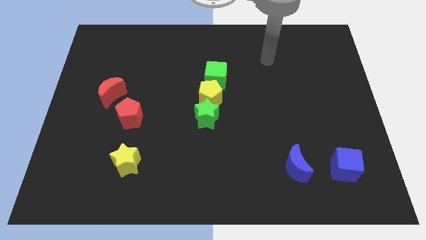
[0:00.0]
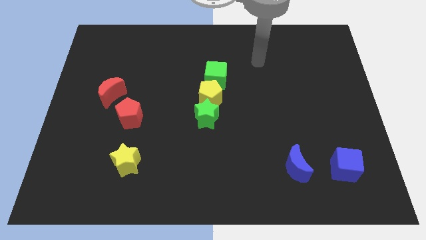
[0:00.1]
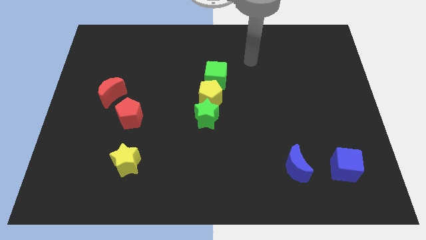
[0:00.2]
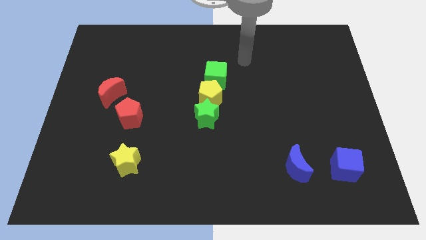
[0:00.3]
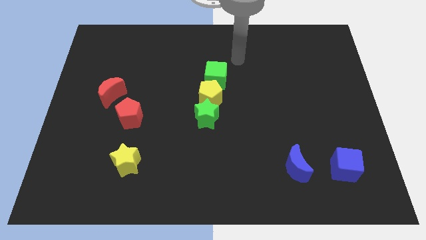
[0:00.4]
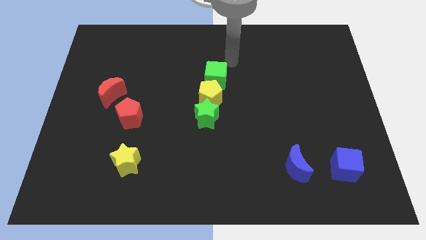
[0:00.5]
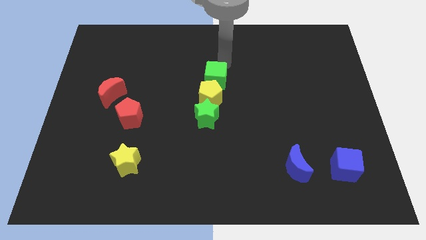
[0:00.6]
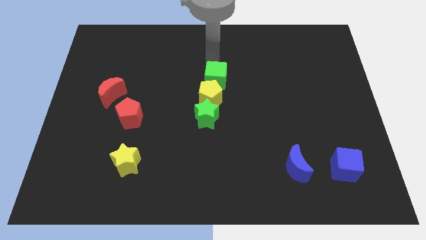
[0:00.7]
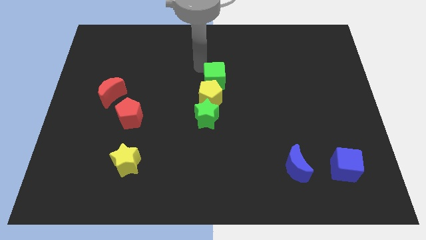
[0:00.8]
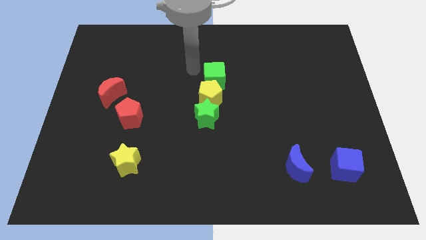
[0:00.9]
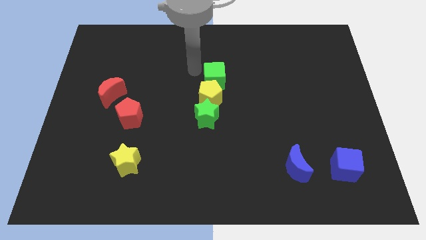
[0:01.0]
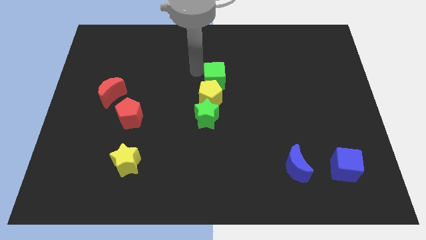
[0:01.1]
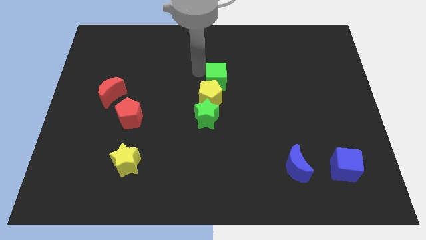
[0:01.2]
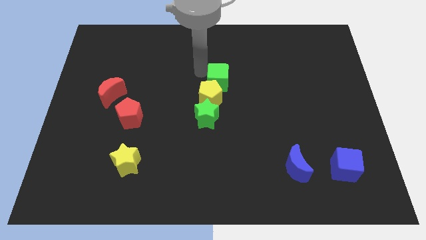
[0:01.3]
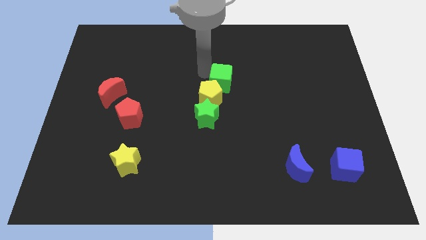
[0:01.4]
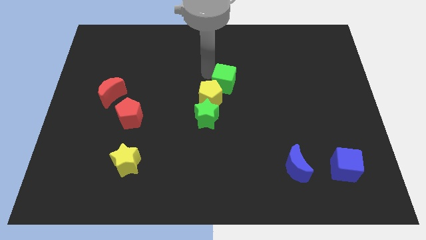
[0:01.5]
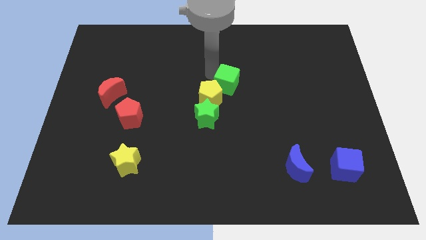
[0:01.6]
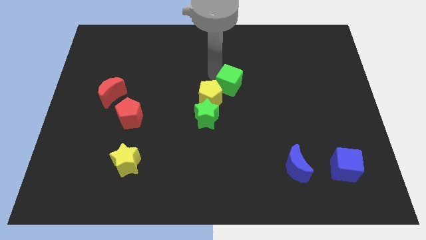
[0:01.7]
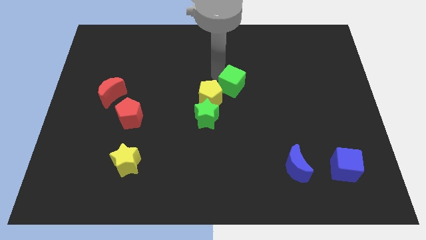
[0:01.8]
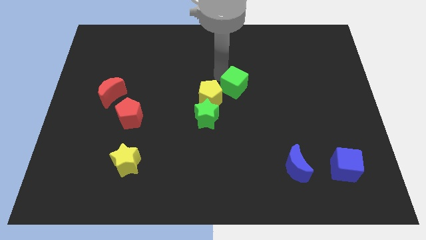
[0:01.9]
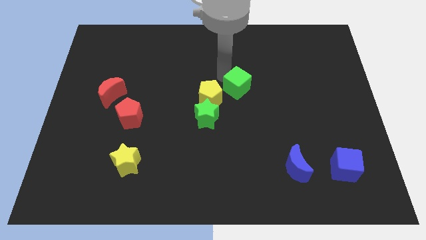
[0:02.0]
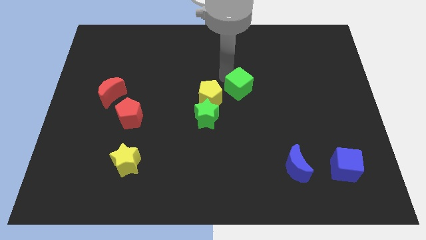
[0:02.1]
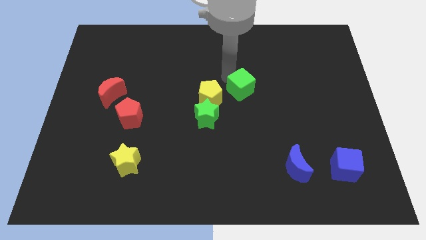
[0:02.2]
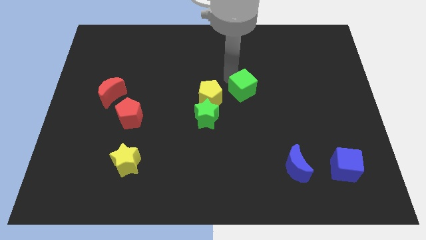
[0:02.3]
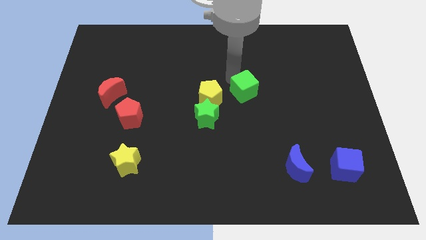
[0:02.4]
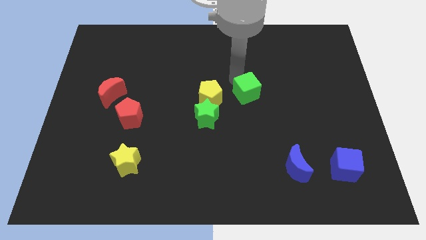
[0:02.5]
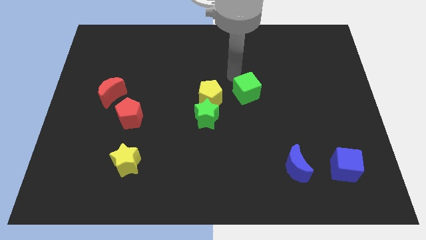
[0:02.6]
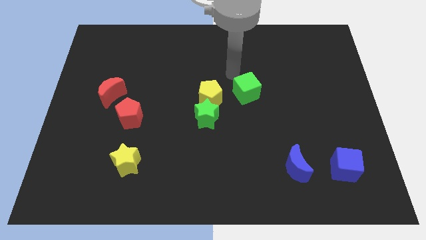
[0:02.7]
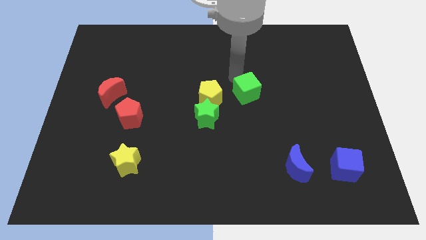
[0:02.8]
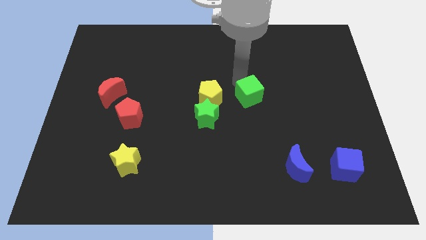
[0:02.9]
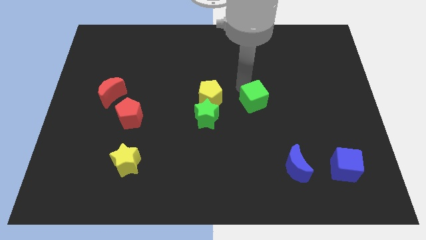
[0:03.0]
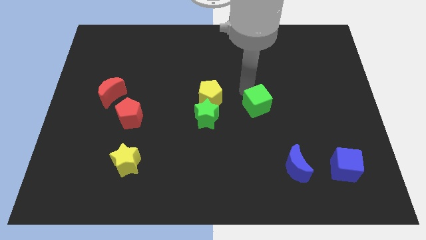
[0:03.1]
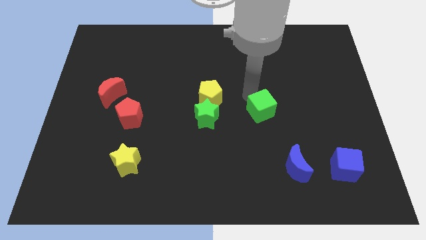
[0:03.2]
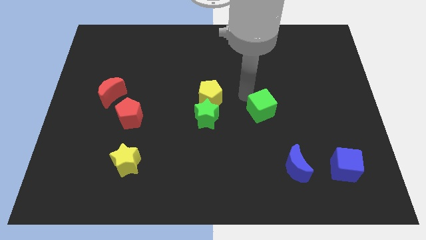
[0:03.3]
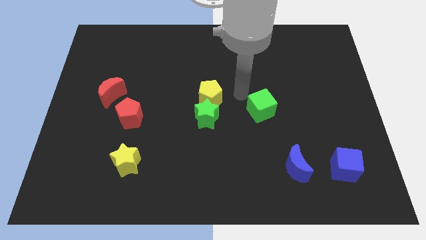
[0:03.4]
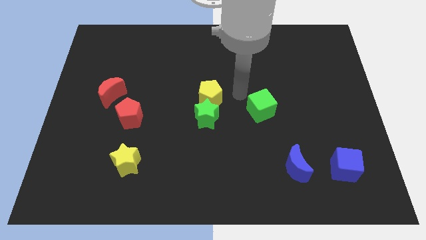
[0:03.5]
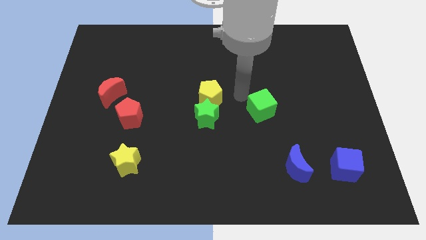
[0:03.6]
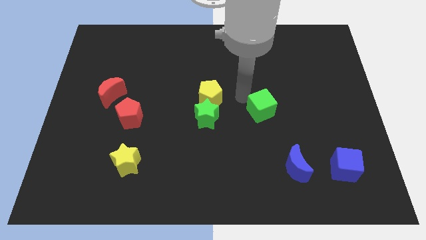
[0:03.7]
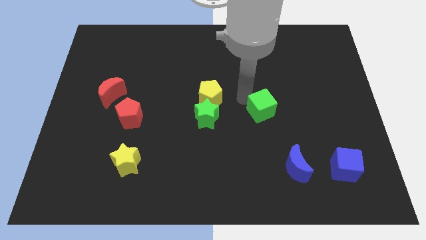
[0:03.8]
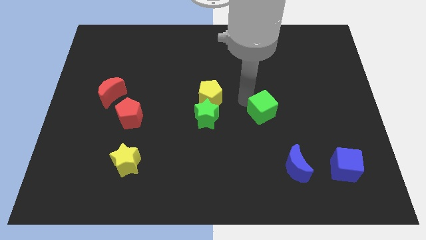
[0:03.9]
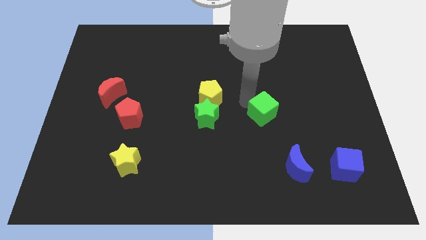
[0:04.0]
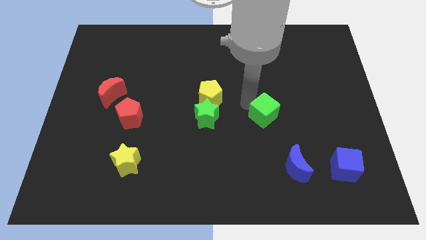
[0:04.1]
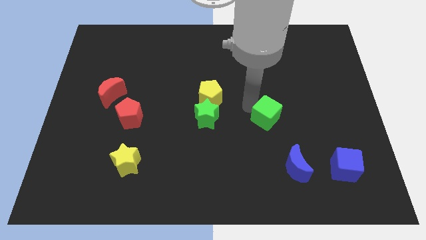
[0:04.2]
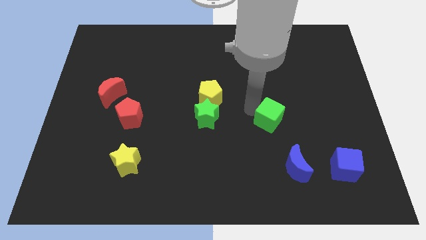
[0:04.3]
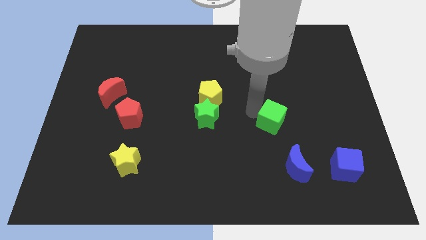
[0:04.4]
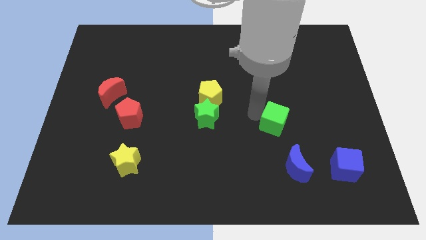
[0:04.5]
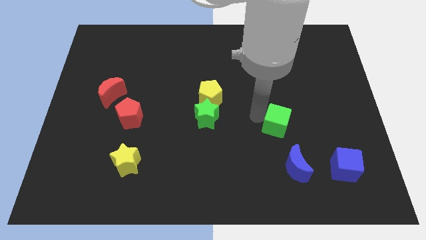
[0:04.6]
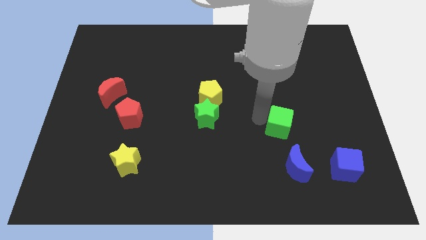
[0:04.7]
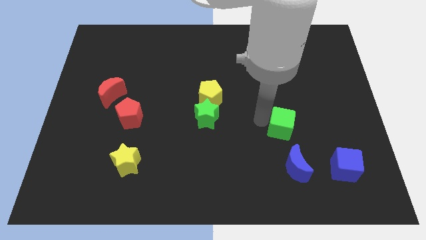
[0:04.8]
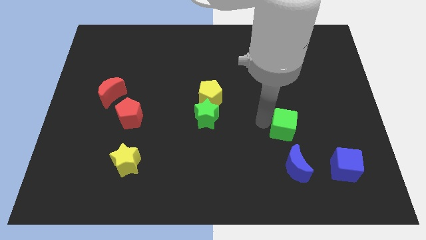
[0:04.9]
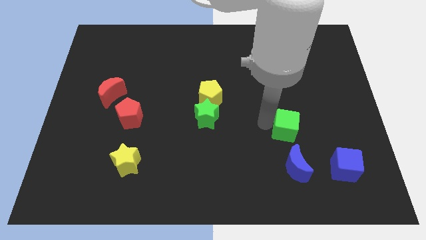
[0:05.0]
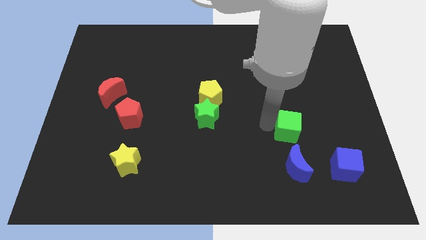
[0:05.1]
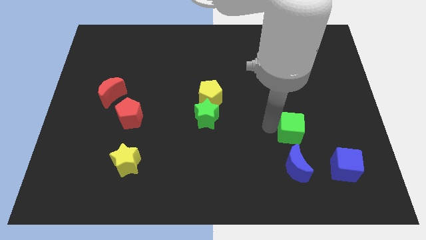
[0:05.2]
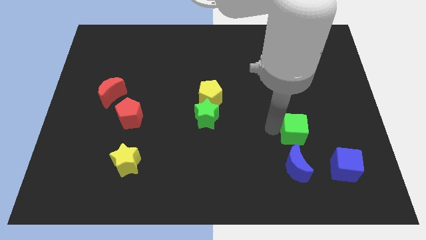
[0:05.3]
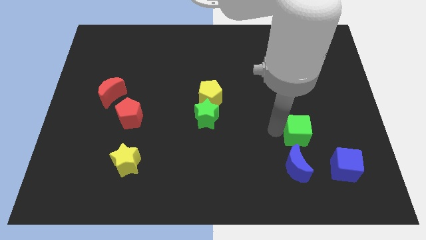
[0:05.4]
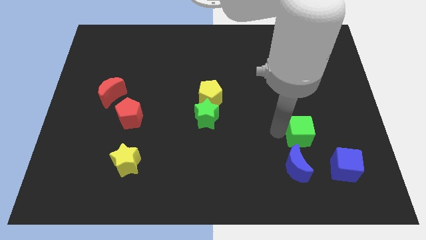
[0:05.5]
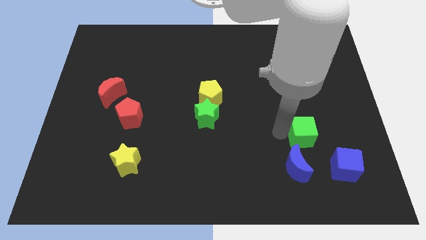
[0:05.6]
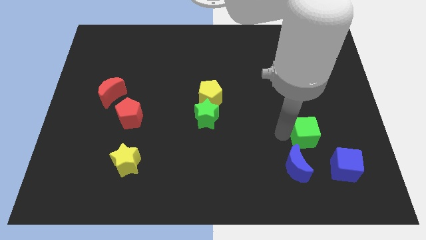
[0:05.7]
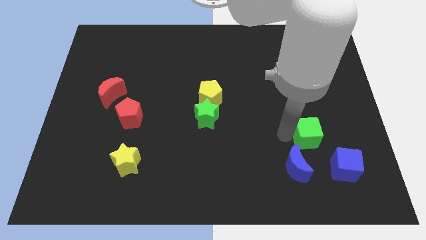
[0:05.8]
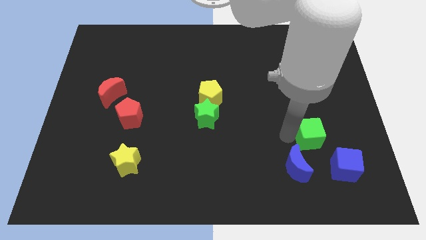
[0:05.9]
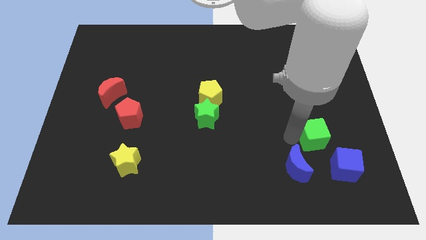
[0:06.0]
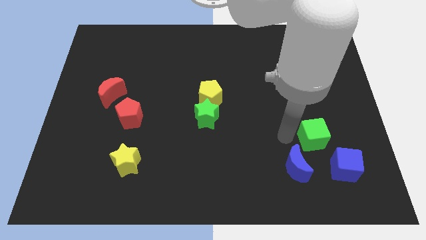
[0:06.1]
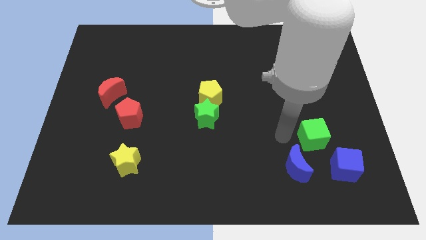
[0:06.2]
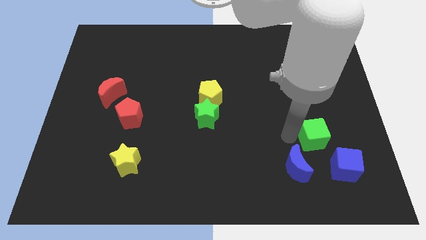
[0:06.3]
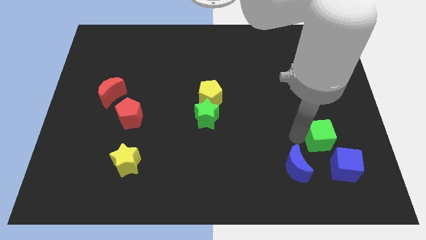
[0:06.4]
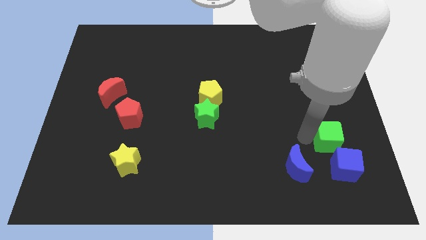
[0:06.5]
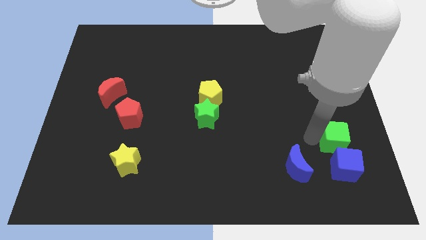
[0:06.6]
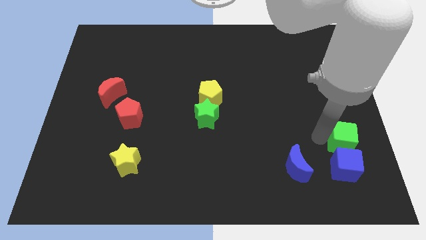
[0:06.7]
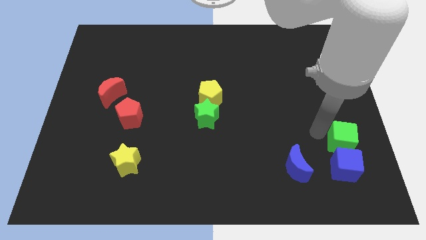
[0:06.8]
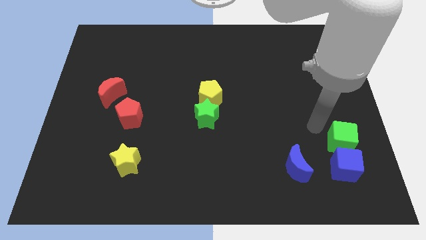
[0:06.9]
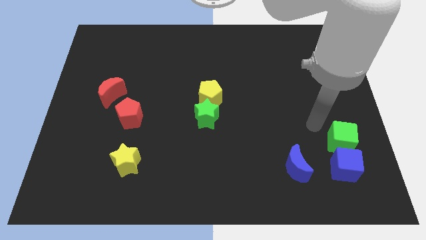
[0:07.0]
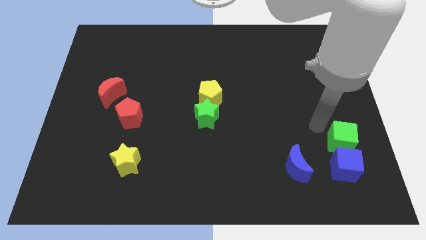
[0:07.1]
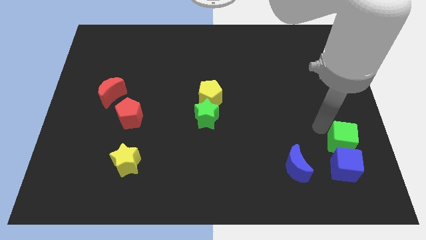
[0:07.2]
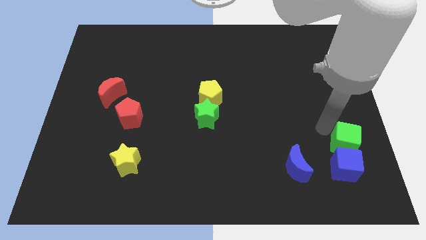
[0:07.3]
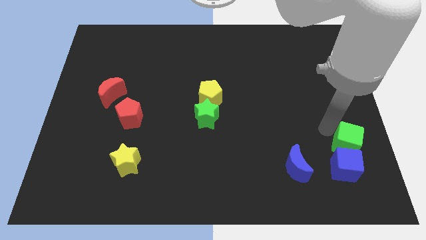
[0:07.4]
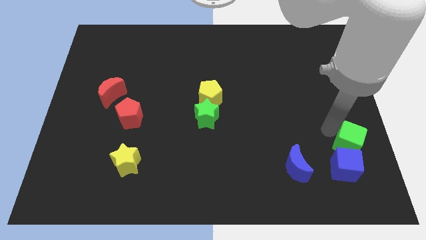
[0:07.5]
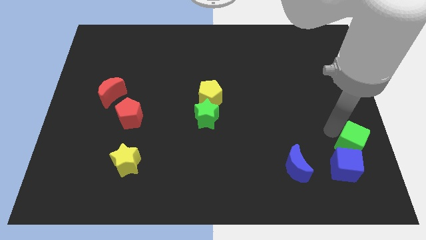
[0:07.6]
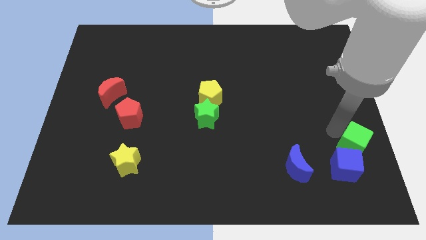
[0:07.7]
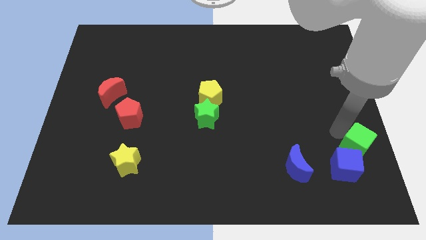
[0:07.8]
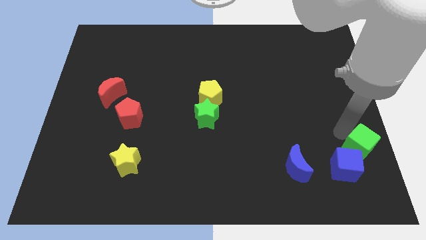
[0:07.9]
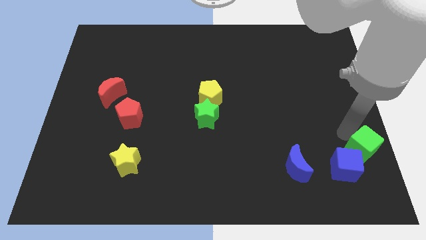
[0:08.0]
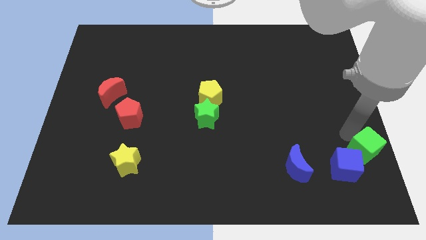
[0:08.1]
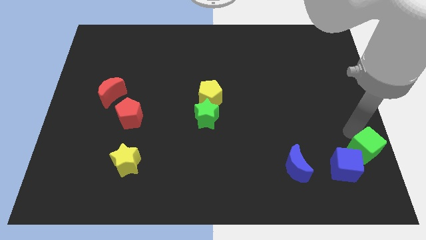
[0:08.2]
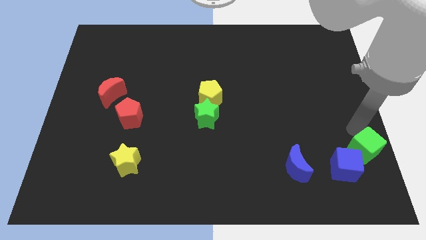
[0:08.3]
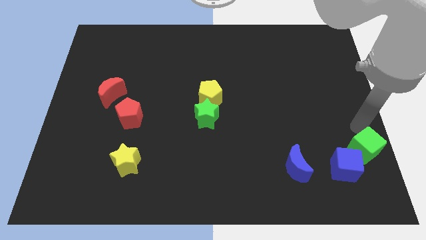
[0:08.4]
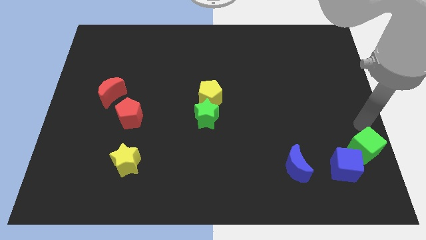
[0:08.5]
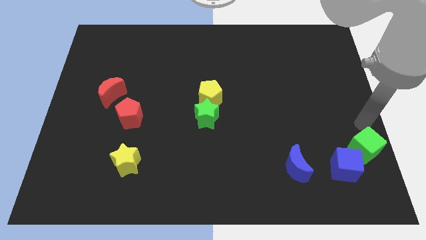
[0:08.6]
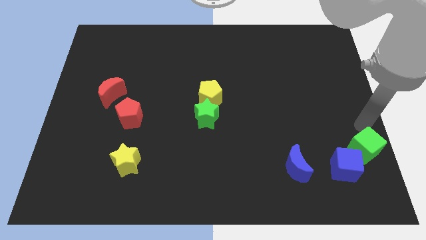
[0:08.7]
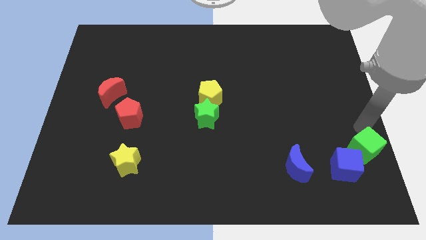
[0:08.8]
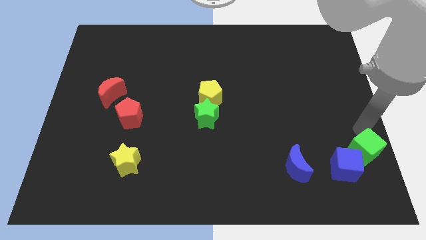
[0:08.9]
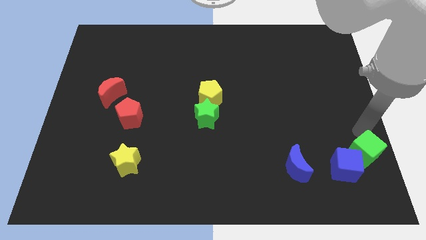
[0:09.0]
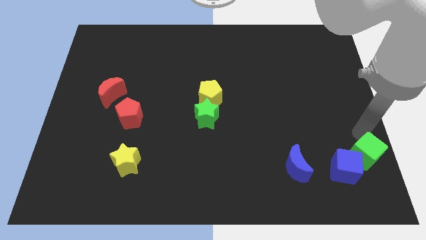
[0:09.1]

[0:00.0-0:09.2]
push the green cube right of the blue moon
